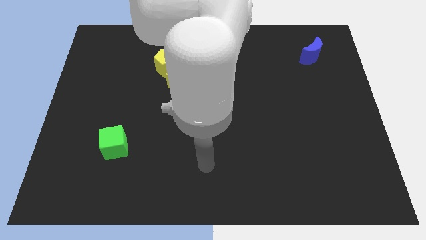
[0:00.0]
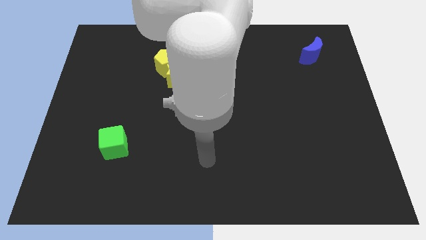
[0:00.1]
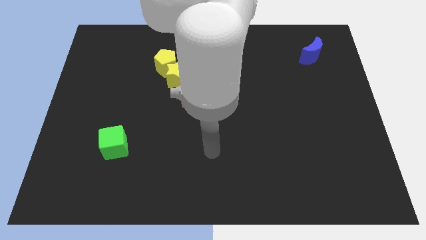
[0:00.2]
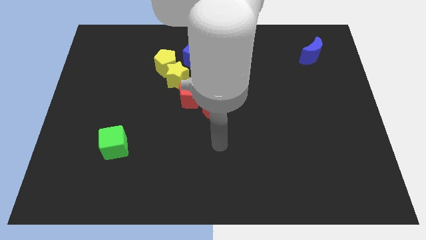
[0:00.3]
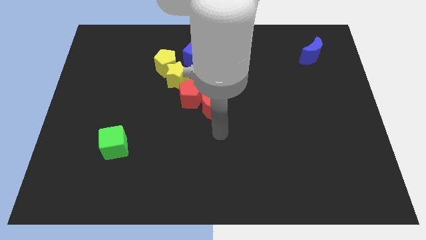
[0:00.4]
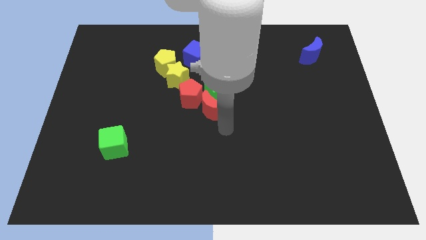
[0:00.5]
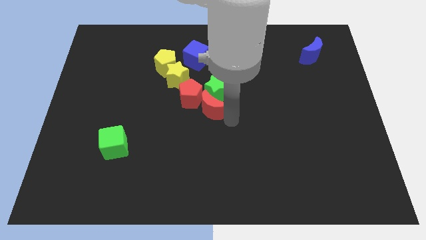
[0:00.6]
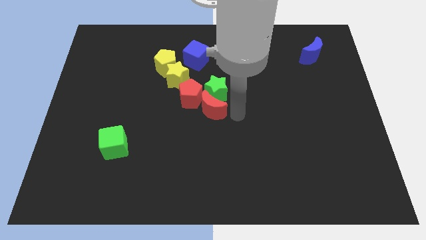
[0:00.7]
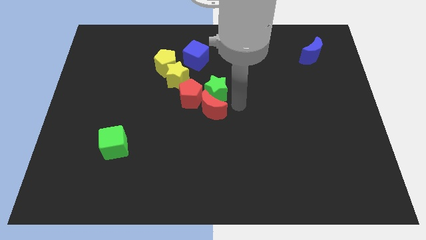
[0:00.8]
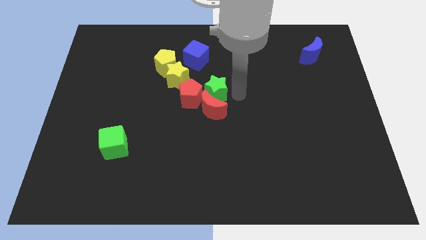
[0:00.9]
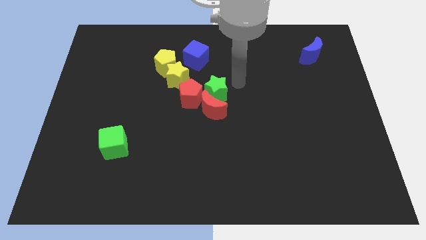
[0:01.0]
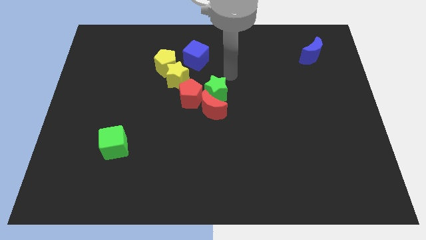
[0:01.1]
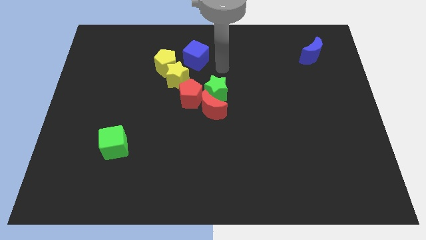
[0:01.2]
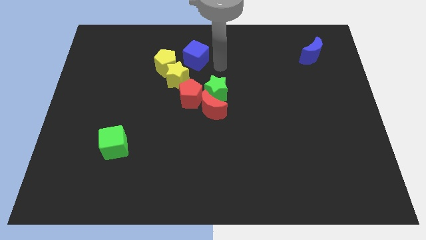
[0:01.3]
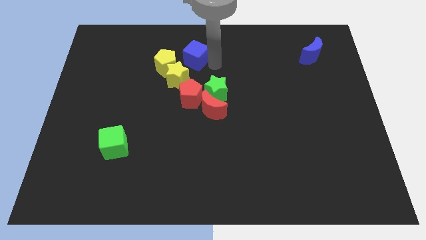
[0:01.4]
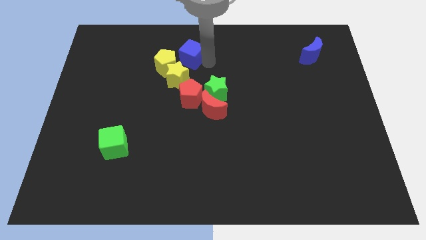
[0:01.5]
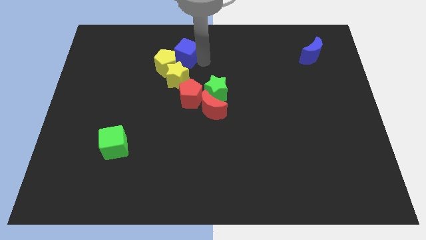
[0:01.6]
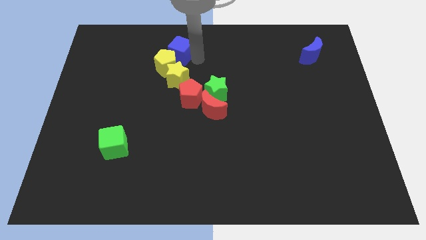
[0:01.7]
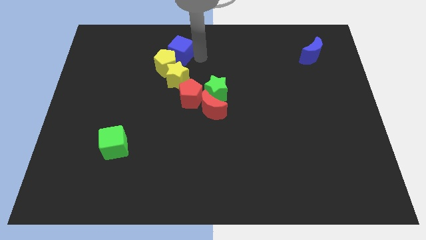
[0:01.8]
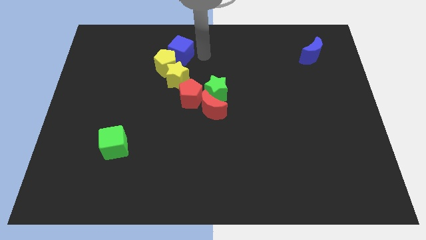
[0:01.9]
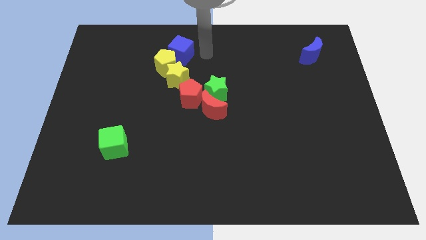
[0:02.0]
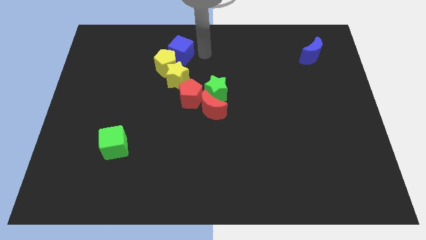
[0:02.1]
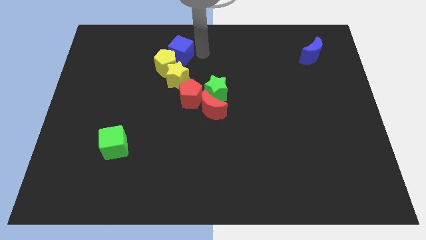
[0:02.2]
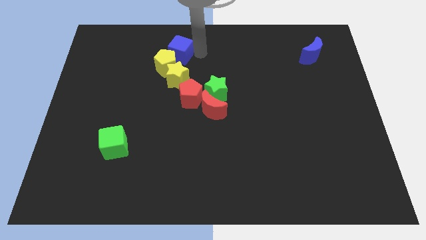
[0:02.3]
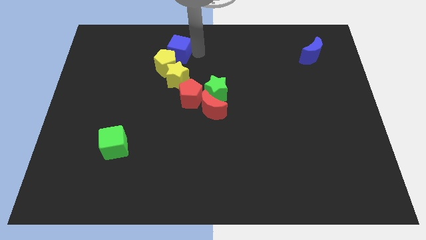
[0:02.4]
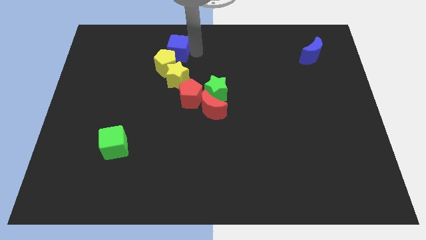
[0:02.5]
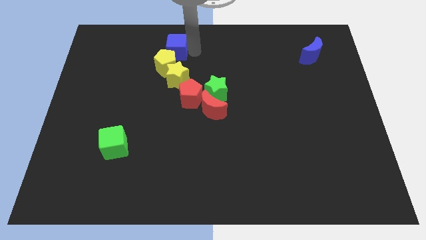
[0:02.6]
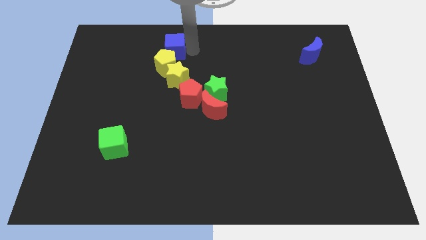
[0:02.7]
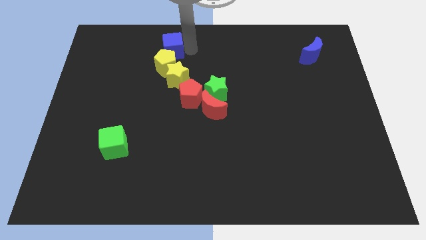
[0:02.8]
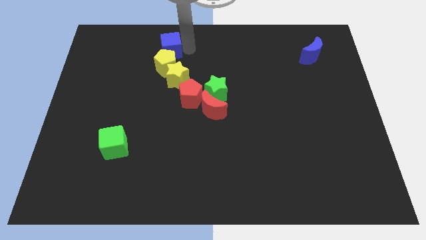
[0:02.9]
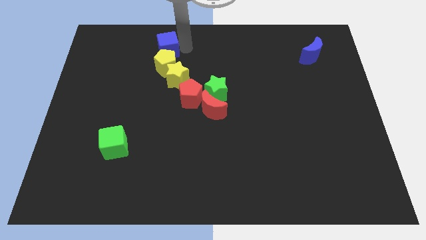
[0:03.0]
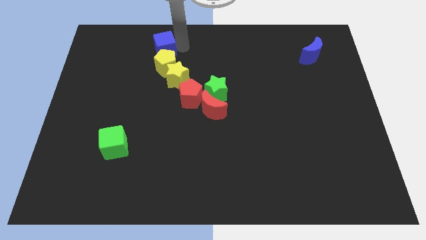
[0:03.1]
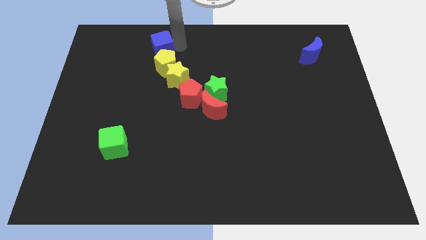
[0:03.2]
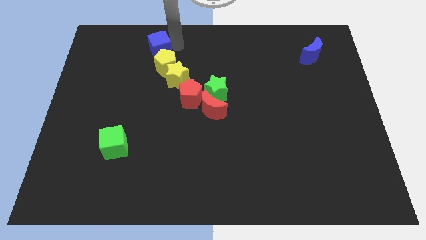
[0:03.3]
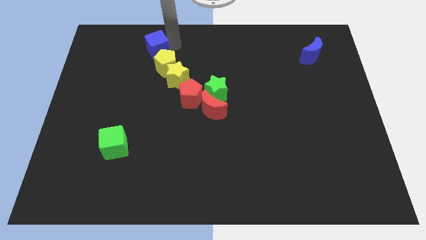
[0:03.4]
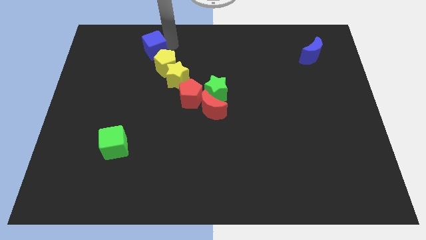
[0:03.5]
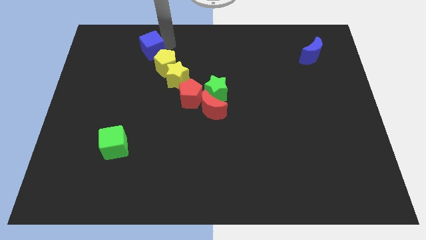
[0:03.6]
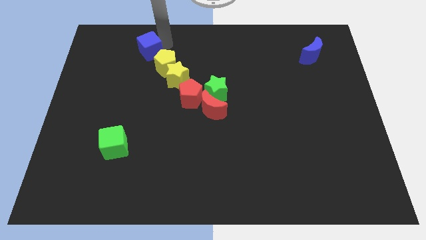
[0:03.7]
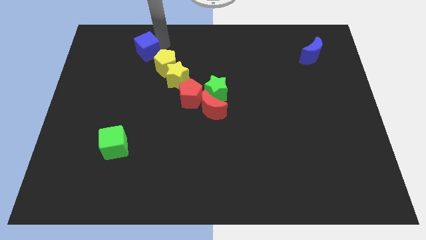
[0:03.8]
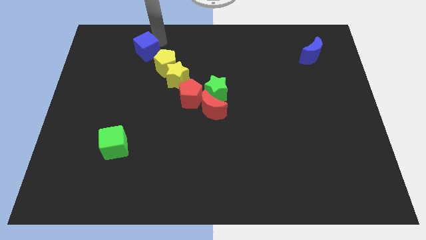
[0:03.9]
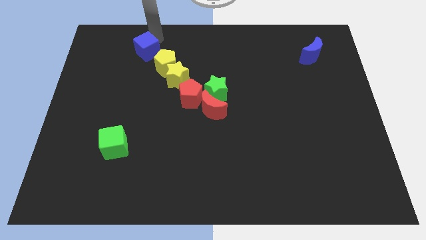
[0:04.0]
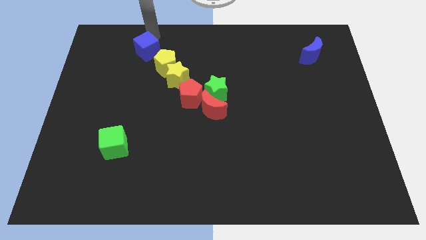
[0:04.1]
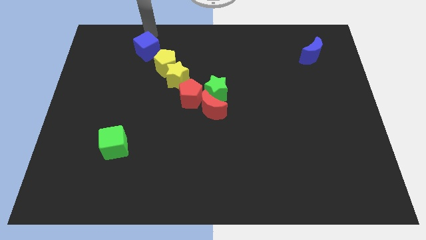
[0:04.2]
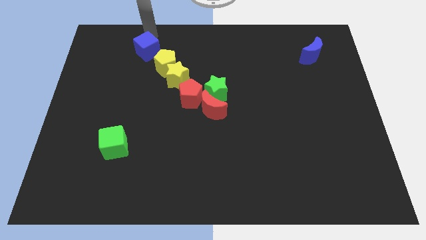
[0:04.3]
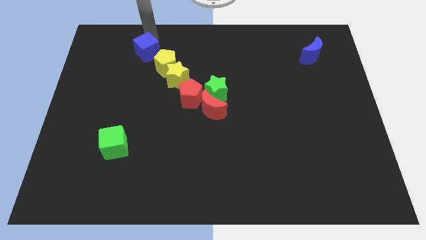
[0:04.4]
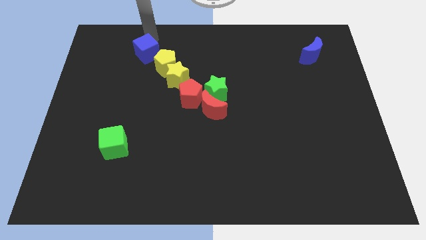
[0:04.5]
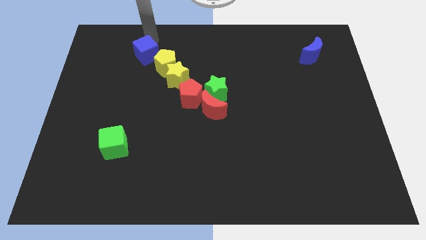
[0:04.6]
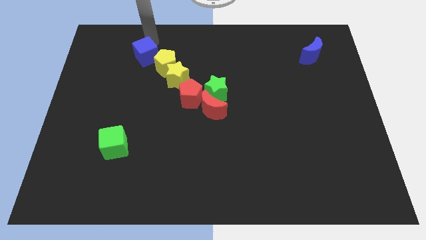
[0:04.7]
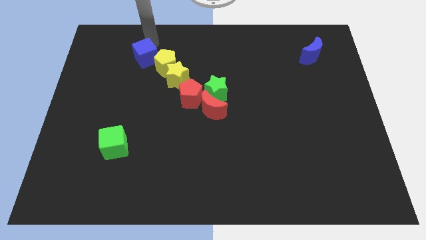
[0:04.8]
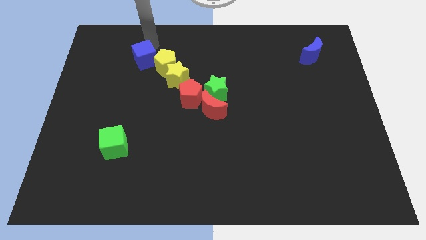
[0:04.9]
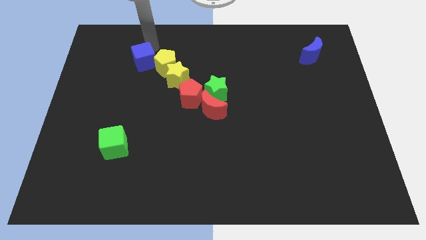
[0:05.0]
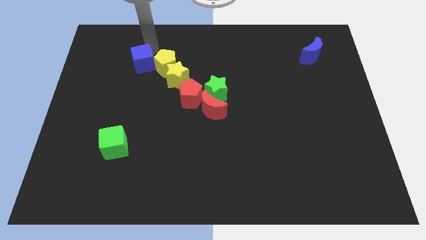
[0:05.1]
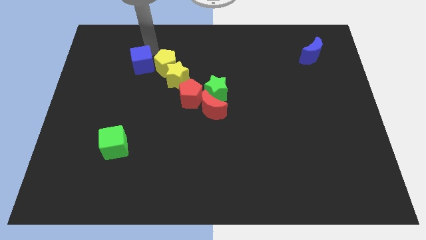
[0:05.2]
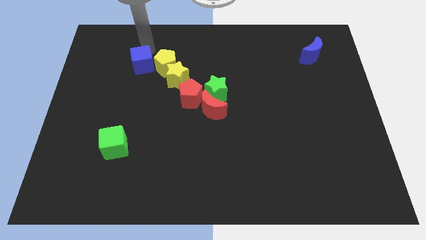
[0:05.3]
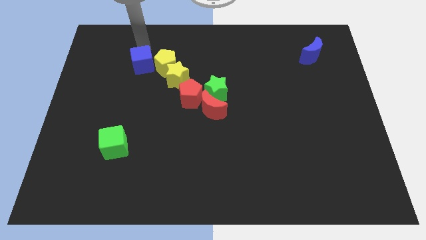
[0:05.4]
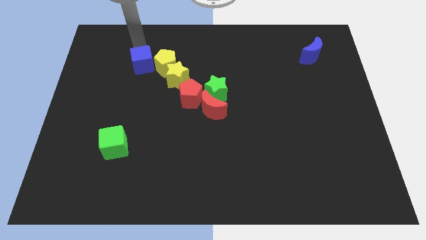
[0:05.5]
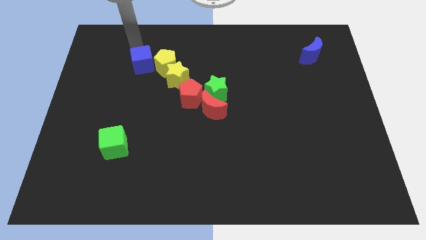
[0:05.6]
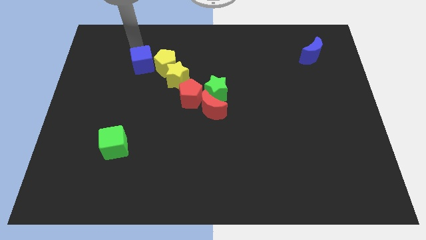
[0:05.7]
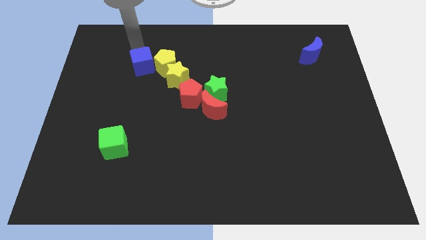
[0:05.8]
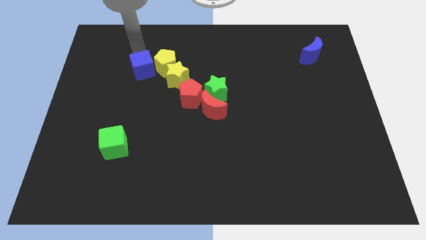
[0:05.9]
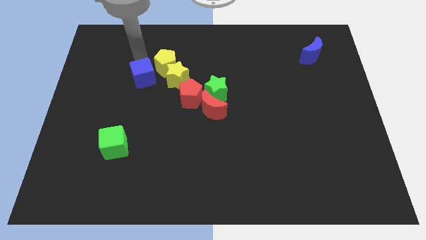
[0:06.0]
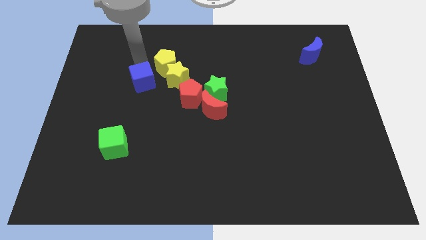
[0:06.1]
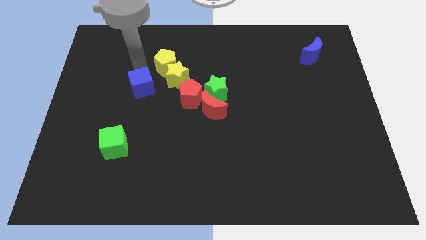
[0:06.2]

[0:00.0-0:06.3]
move the blue cube diagonally down and to the left of the yellow star
